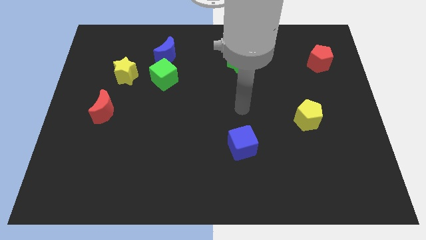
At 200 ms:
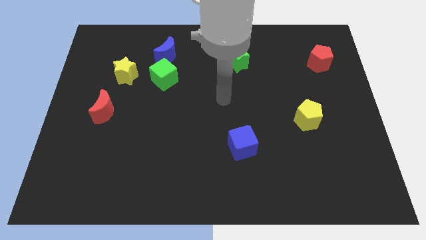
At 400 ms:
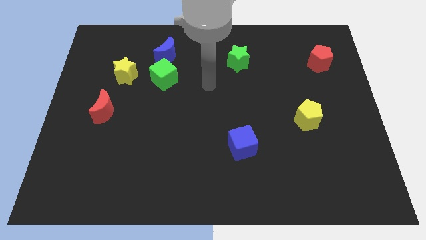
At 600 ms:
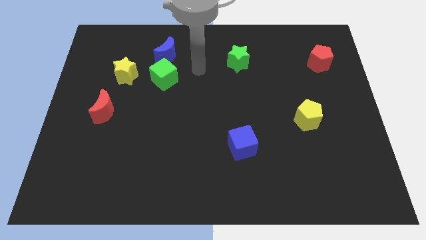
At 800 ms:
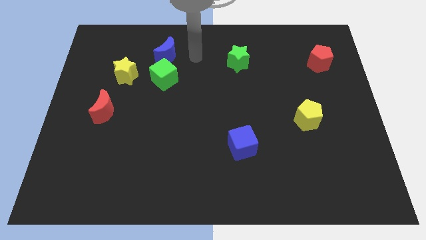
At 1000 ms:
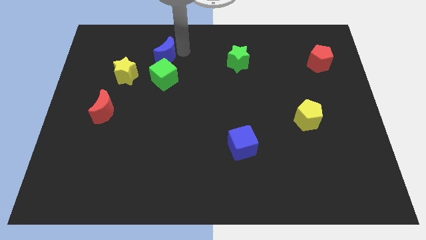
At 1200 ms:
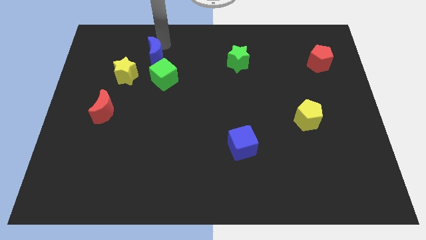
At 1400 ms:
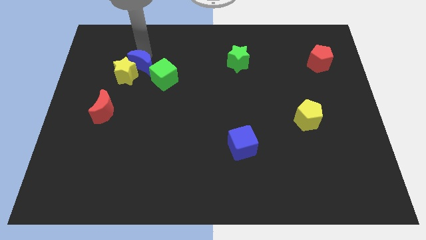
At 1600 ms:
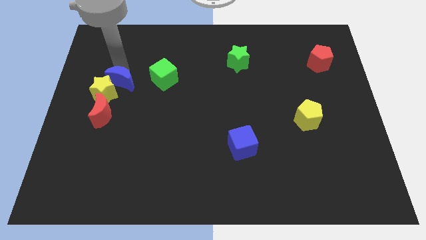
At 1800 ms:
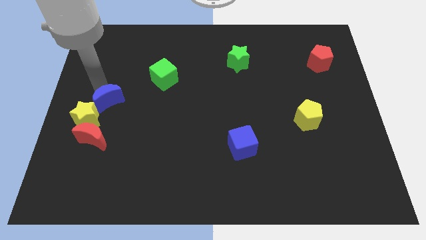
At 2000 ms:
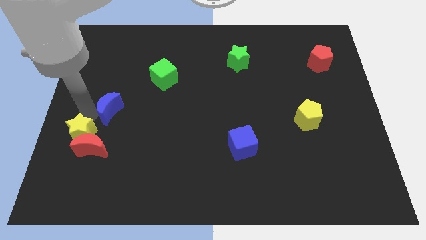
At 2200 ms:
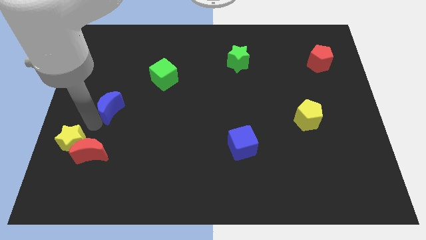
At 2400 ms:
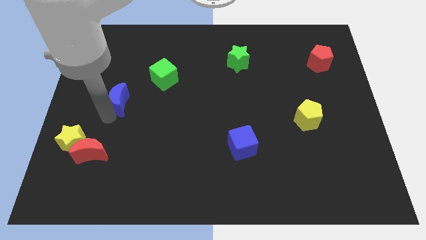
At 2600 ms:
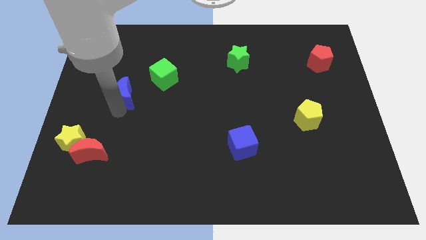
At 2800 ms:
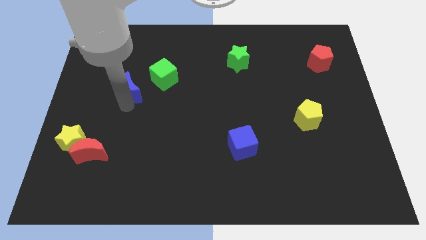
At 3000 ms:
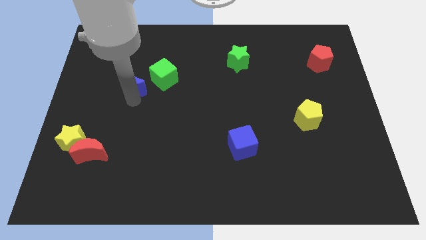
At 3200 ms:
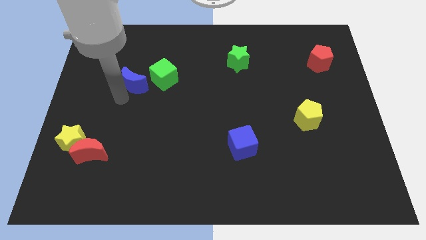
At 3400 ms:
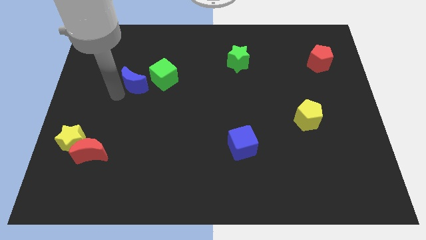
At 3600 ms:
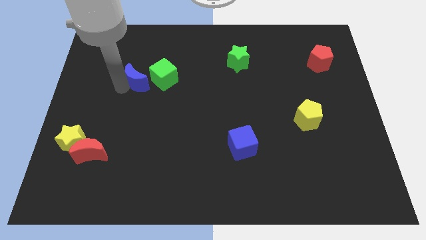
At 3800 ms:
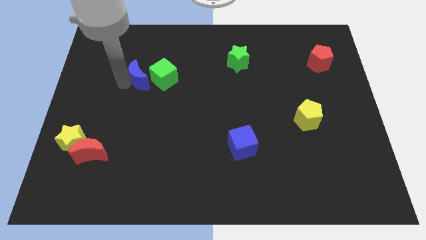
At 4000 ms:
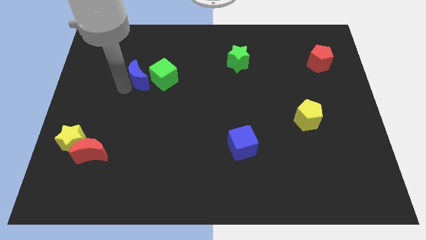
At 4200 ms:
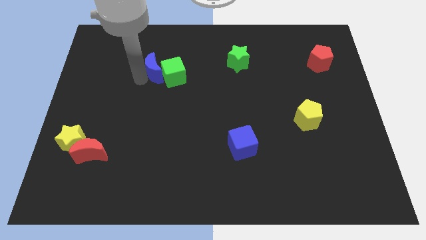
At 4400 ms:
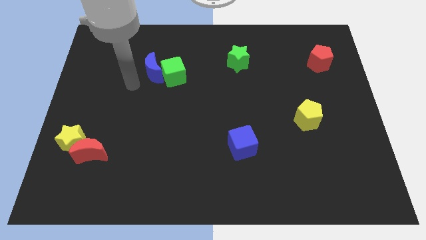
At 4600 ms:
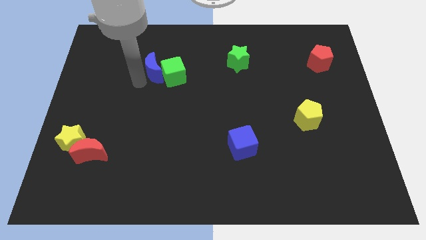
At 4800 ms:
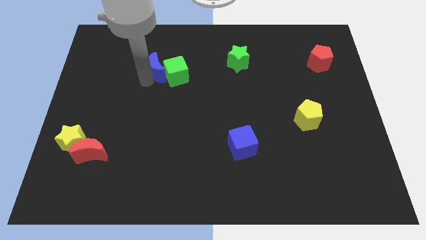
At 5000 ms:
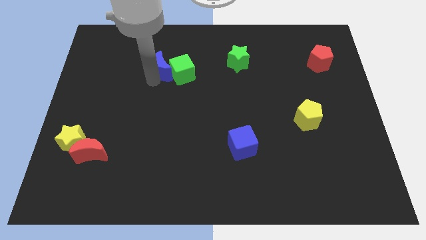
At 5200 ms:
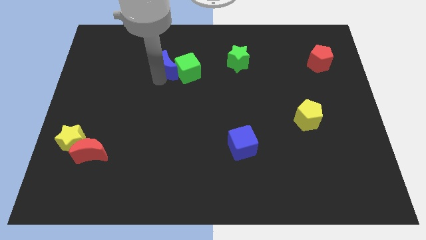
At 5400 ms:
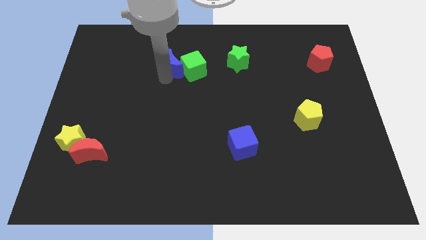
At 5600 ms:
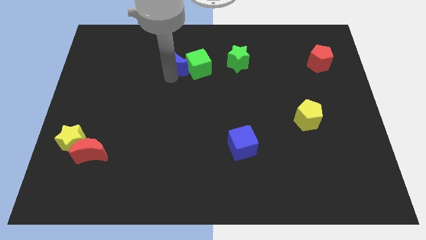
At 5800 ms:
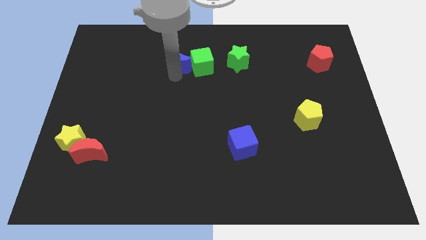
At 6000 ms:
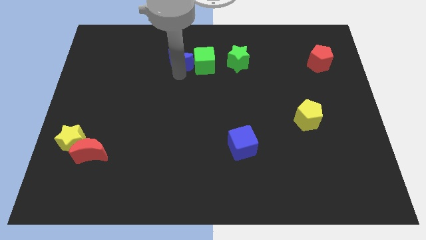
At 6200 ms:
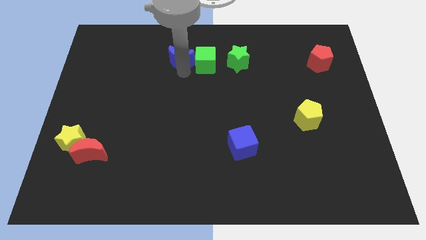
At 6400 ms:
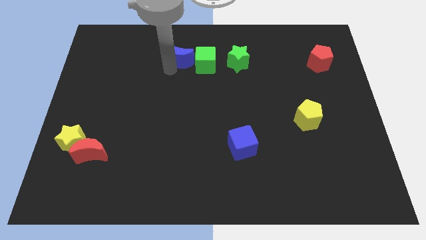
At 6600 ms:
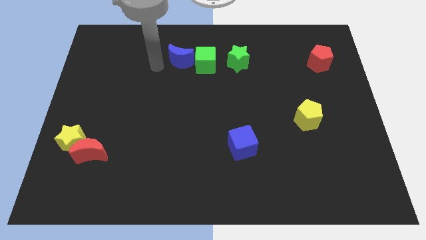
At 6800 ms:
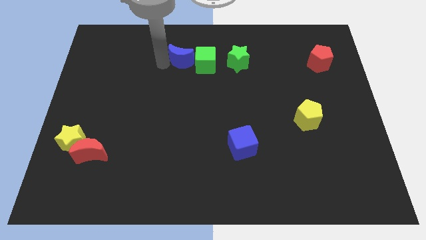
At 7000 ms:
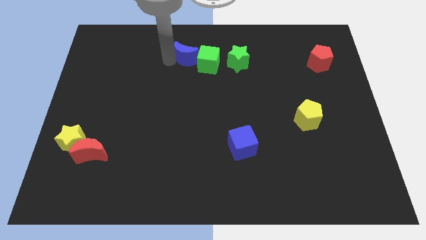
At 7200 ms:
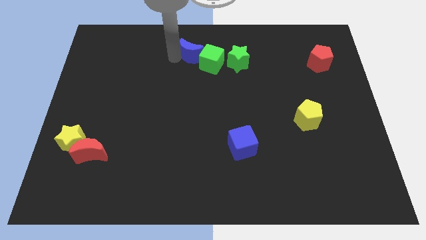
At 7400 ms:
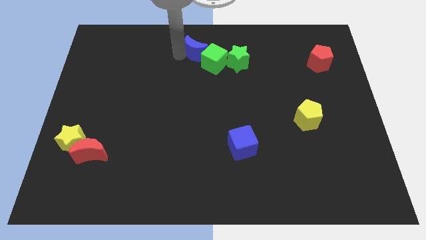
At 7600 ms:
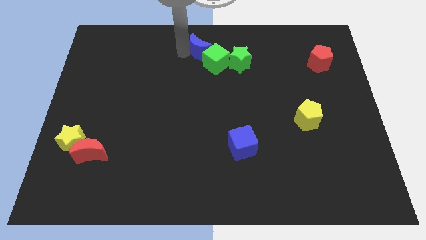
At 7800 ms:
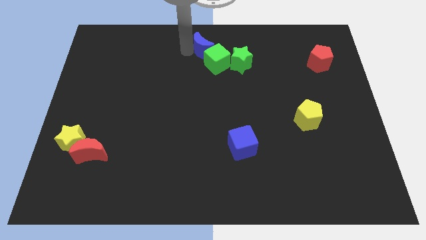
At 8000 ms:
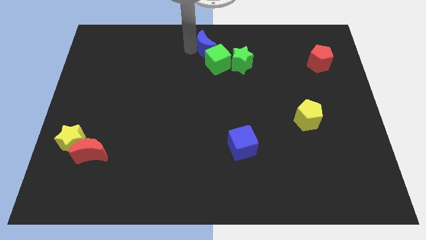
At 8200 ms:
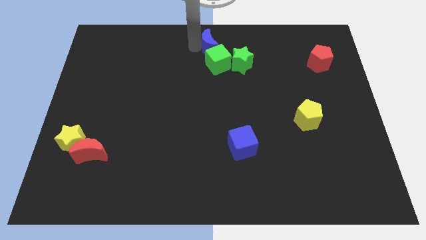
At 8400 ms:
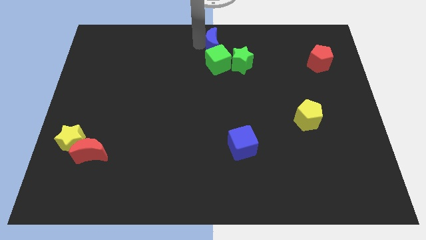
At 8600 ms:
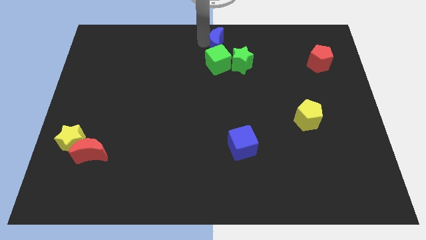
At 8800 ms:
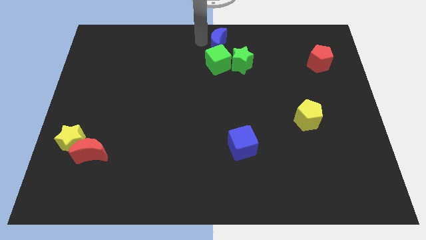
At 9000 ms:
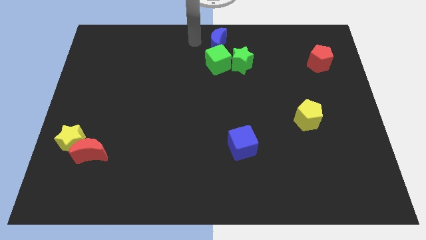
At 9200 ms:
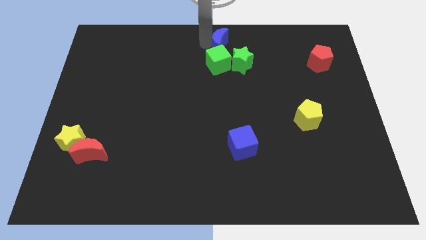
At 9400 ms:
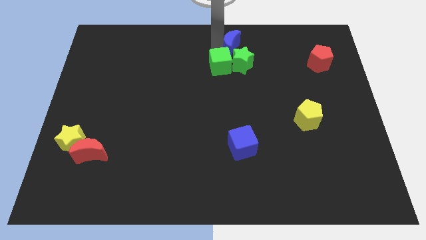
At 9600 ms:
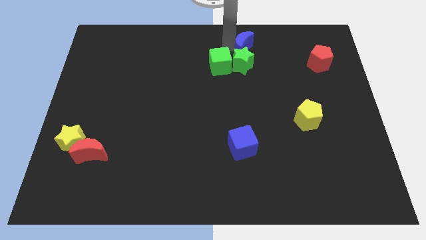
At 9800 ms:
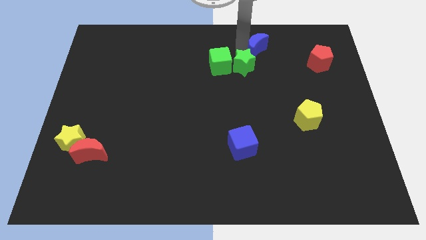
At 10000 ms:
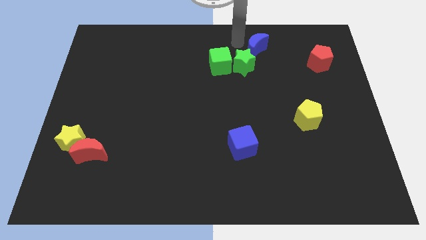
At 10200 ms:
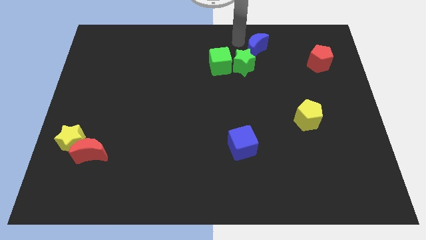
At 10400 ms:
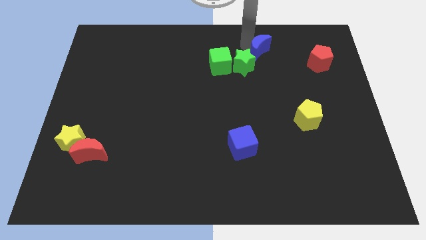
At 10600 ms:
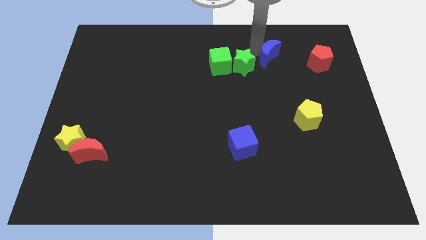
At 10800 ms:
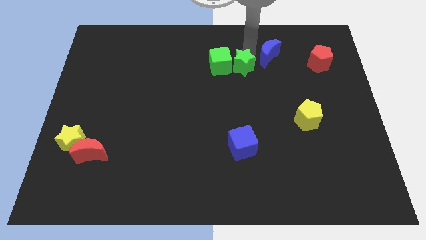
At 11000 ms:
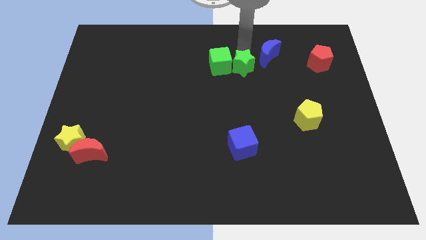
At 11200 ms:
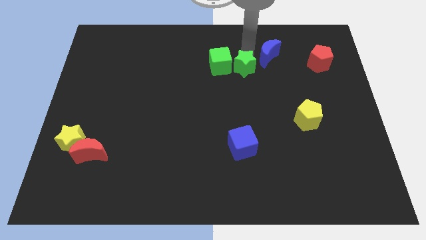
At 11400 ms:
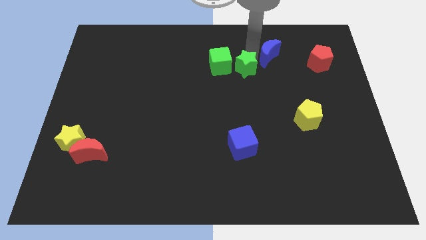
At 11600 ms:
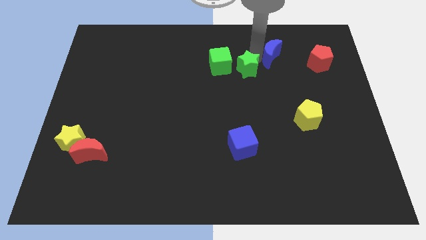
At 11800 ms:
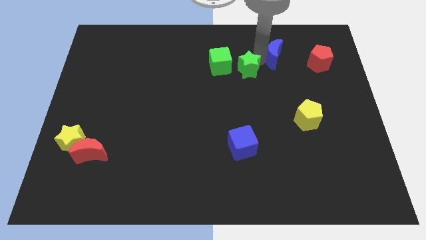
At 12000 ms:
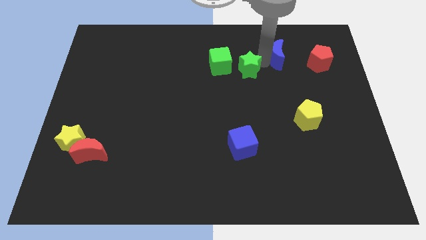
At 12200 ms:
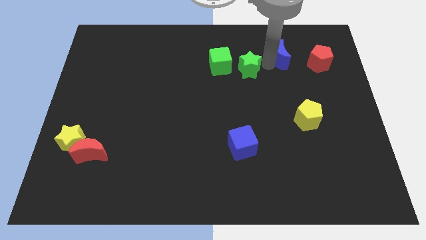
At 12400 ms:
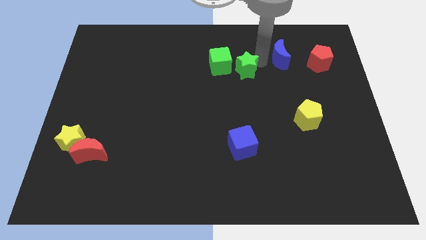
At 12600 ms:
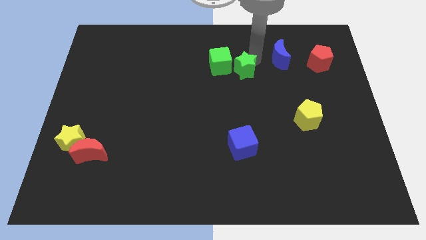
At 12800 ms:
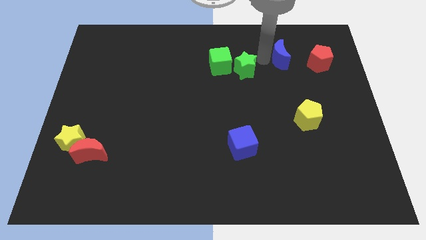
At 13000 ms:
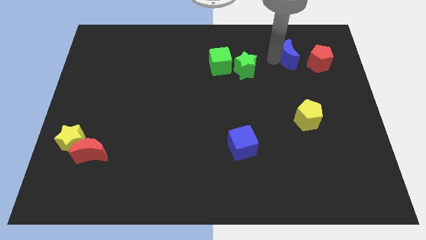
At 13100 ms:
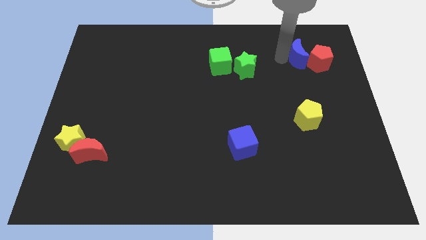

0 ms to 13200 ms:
slide the blue moon close to the red pentagon
